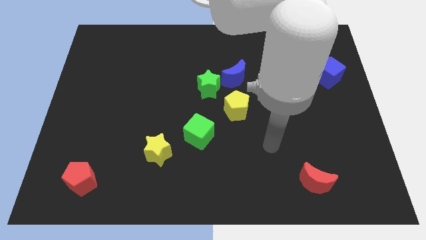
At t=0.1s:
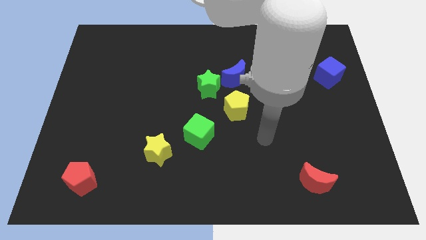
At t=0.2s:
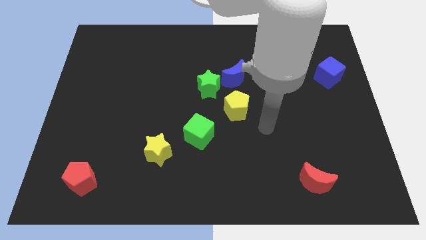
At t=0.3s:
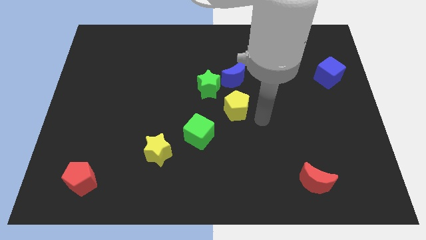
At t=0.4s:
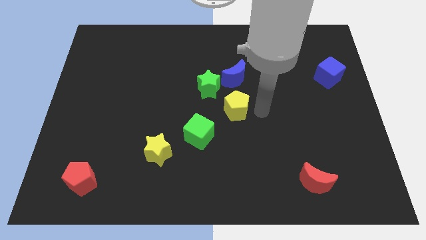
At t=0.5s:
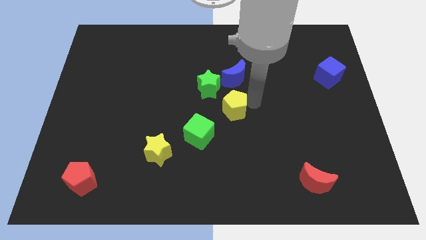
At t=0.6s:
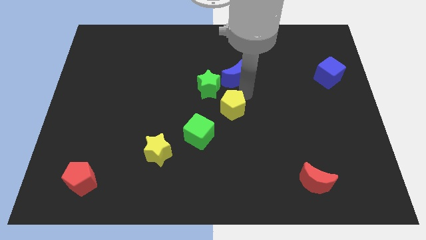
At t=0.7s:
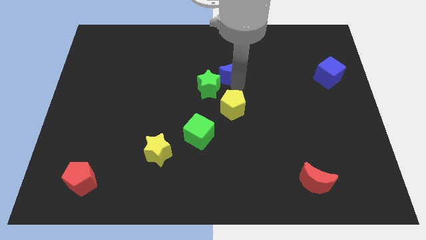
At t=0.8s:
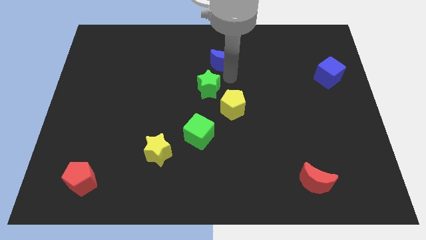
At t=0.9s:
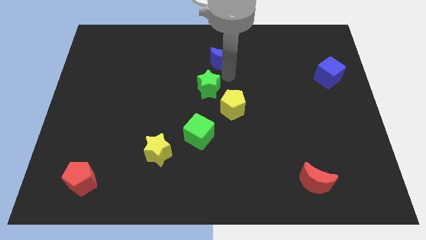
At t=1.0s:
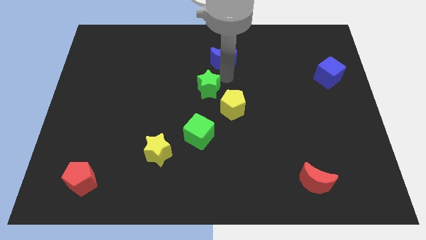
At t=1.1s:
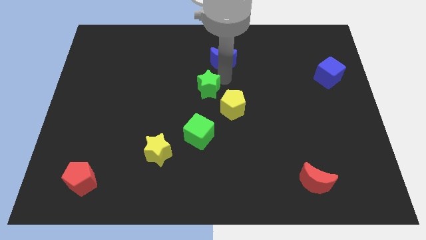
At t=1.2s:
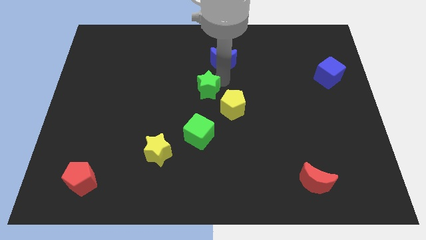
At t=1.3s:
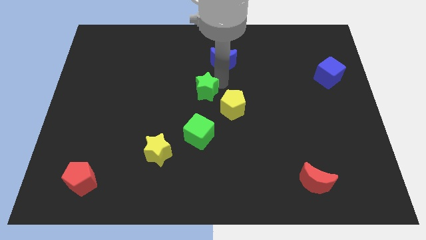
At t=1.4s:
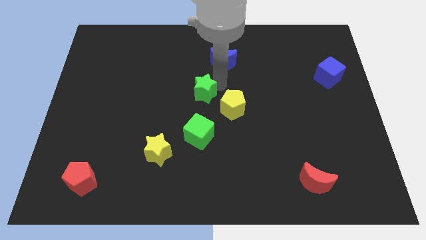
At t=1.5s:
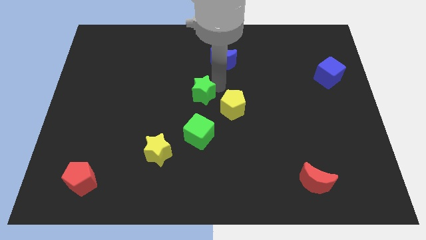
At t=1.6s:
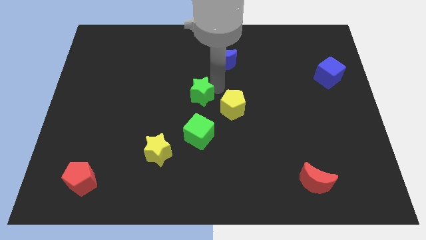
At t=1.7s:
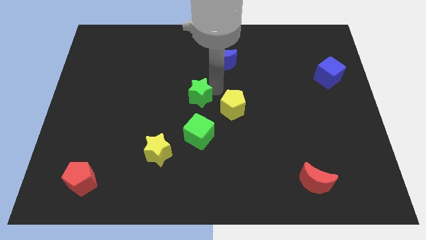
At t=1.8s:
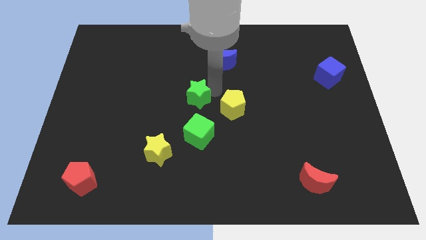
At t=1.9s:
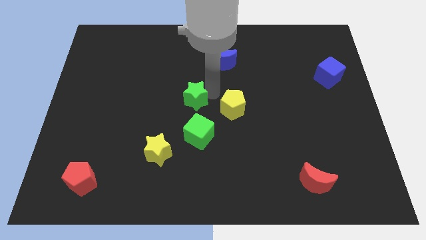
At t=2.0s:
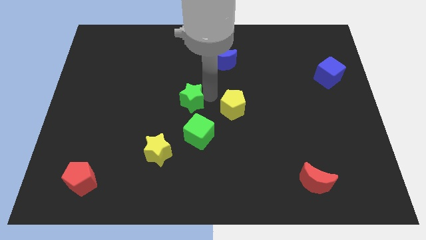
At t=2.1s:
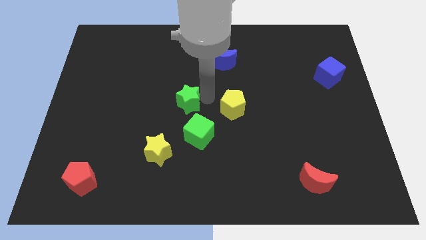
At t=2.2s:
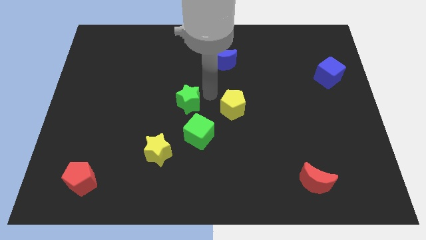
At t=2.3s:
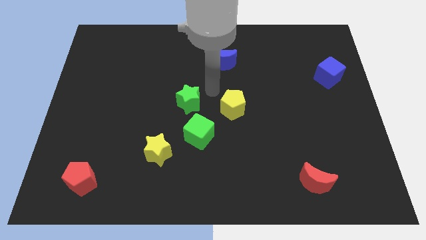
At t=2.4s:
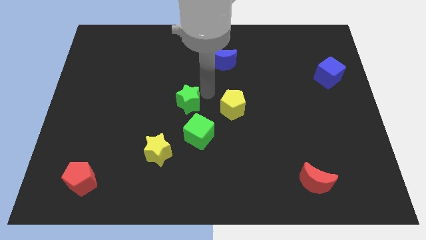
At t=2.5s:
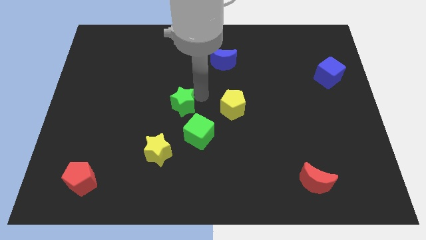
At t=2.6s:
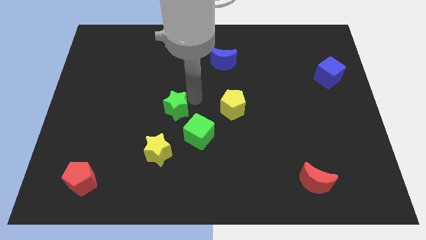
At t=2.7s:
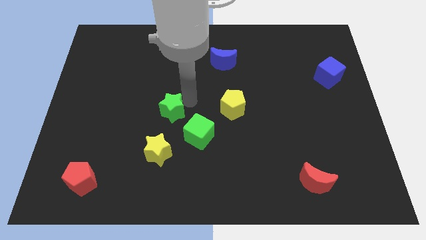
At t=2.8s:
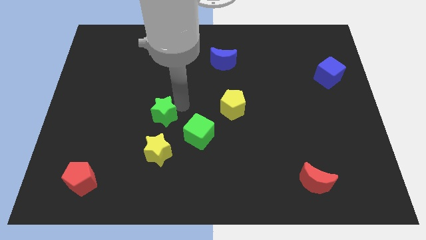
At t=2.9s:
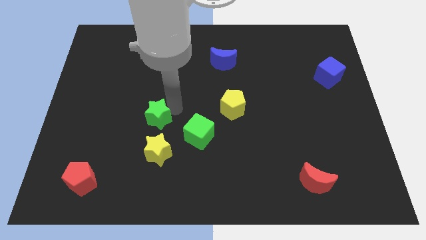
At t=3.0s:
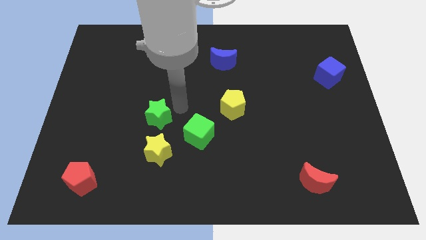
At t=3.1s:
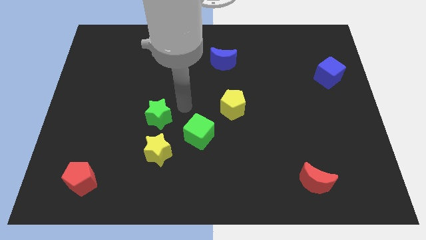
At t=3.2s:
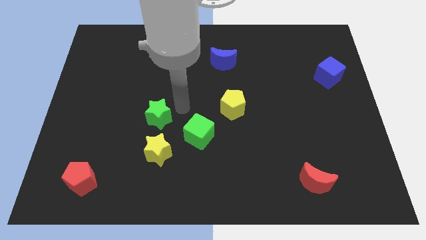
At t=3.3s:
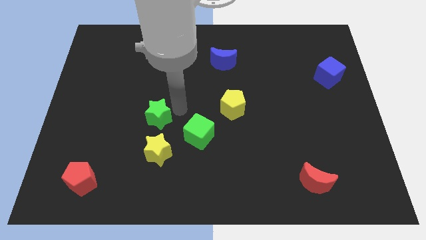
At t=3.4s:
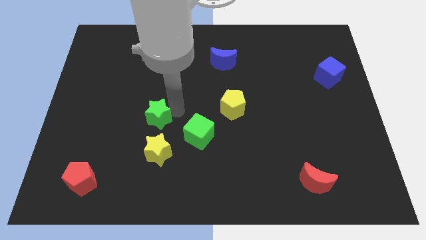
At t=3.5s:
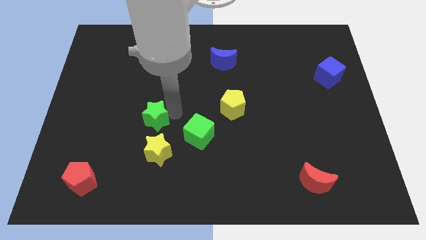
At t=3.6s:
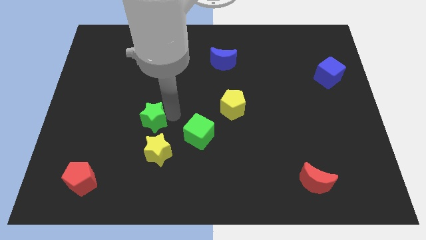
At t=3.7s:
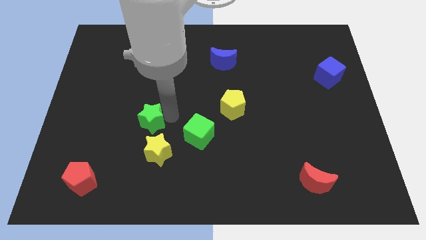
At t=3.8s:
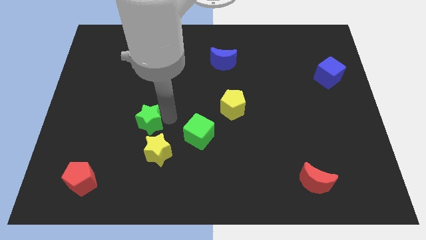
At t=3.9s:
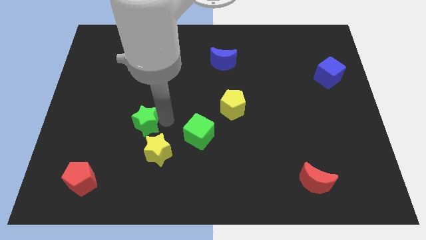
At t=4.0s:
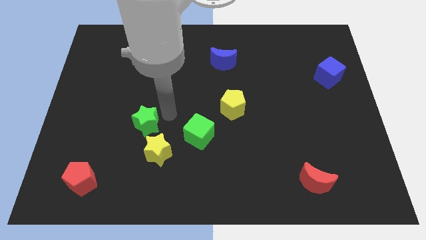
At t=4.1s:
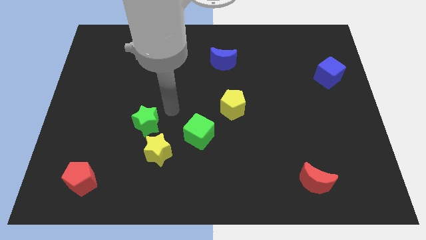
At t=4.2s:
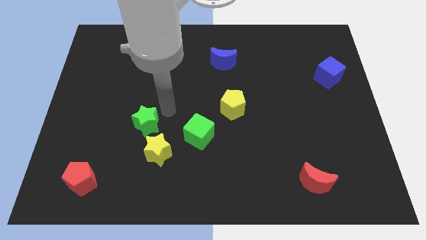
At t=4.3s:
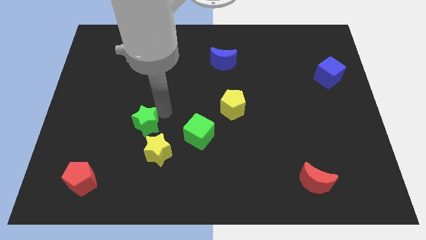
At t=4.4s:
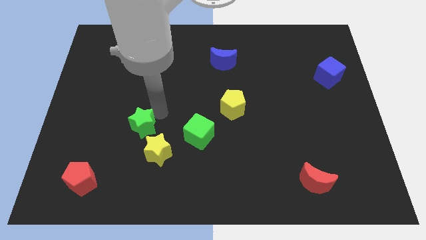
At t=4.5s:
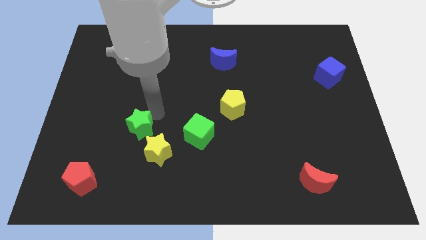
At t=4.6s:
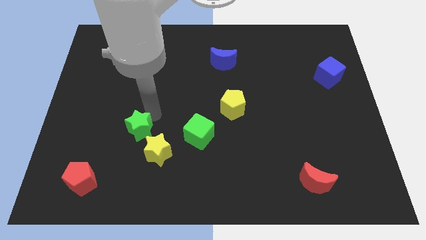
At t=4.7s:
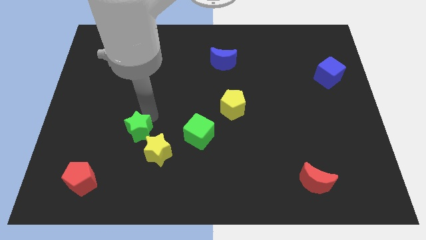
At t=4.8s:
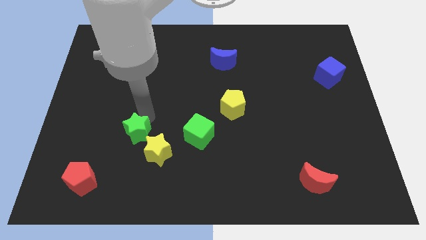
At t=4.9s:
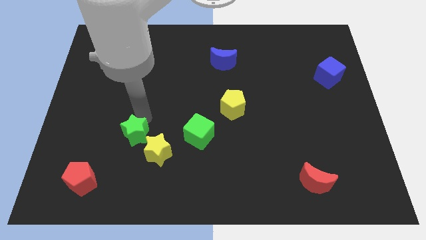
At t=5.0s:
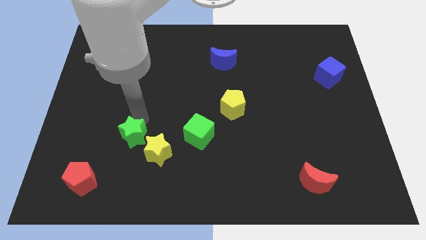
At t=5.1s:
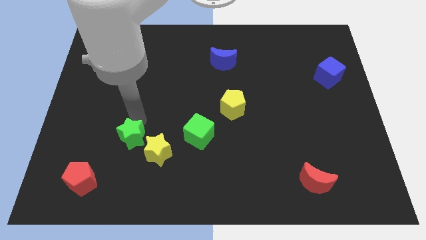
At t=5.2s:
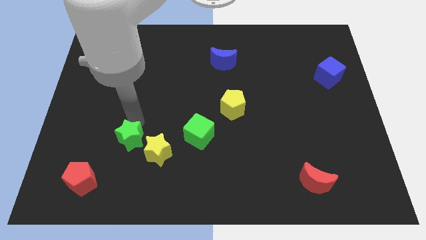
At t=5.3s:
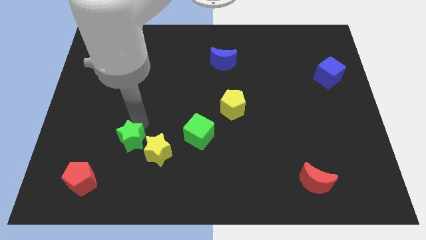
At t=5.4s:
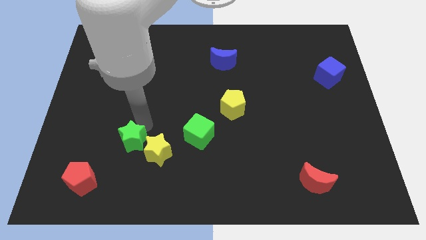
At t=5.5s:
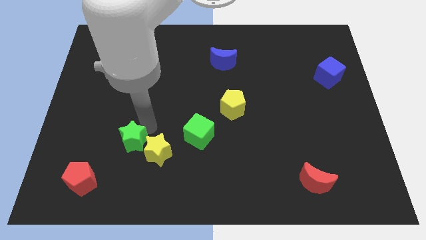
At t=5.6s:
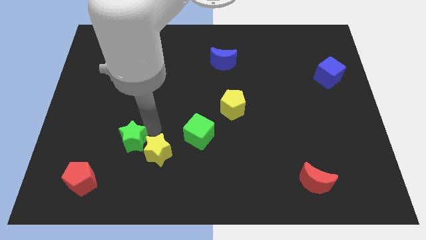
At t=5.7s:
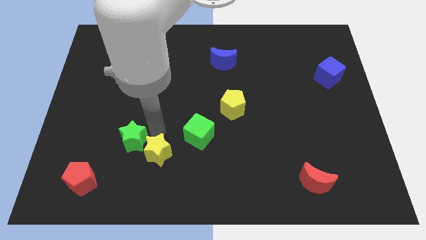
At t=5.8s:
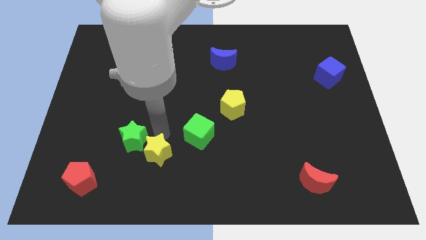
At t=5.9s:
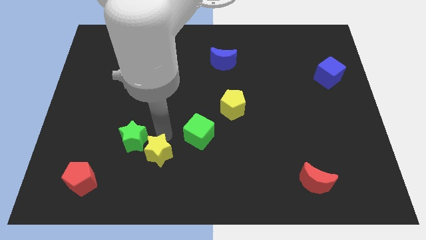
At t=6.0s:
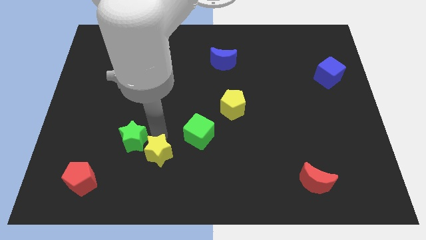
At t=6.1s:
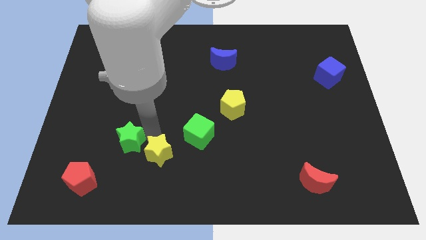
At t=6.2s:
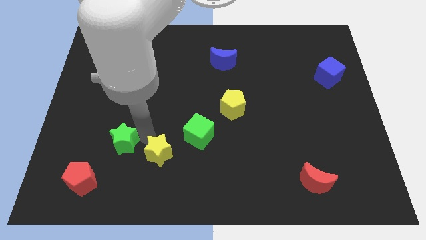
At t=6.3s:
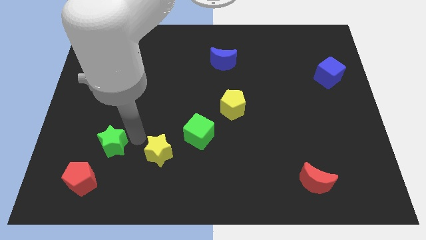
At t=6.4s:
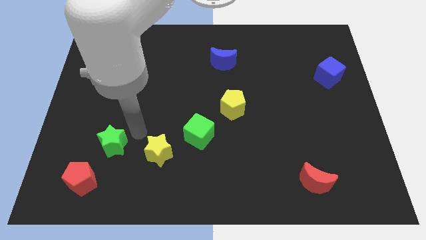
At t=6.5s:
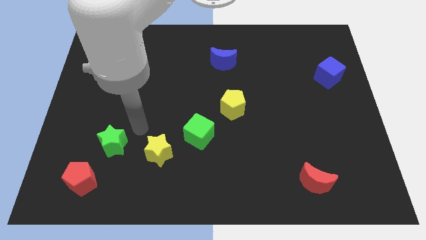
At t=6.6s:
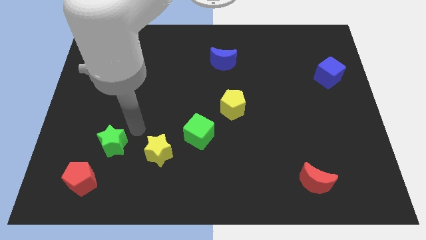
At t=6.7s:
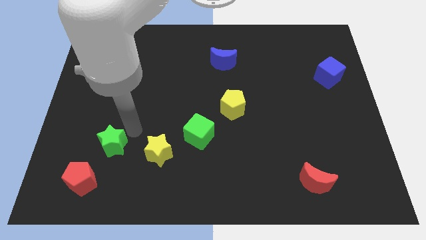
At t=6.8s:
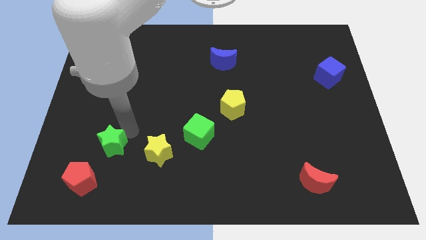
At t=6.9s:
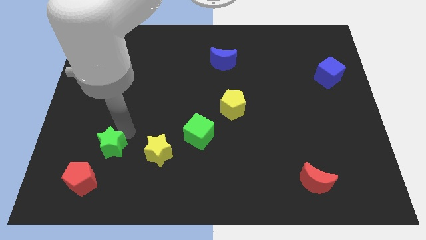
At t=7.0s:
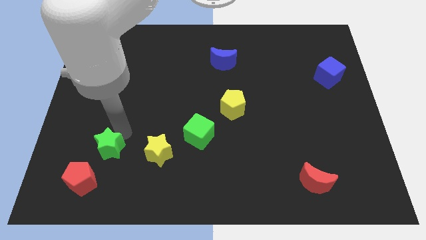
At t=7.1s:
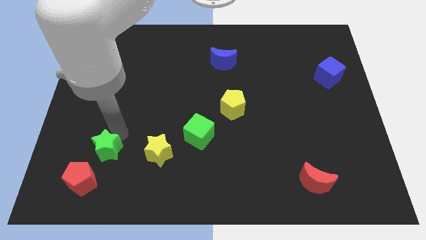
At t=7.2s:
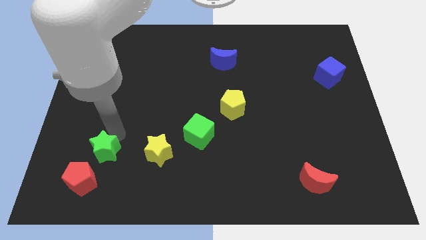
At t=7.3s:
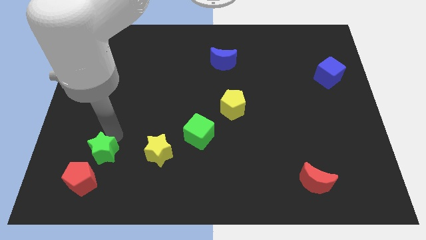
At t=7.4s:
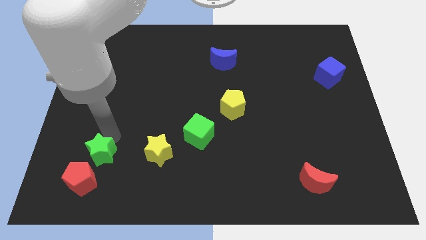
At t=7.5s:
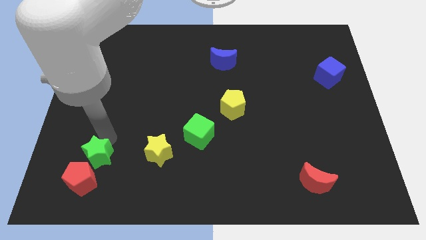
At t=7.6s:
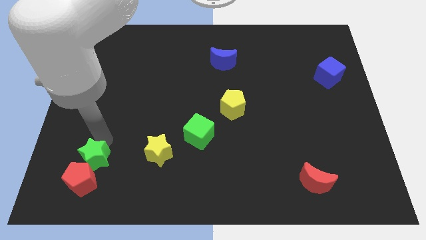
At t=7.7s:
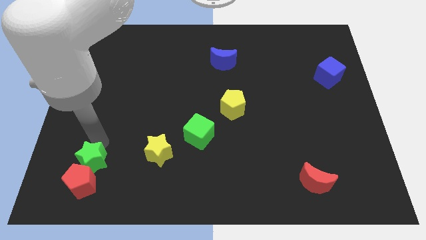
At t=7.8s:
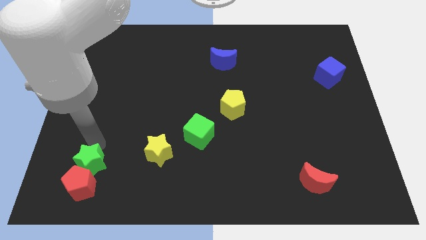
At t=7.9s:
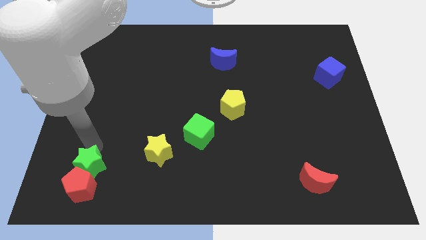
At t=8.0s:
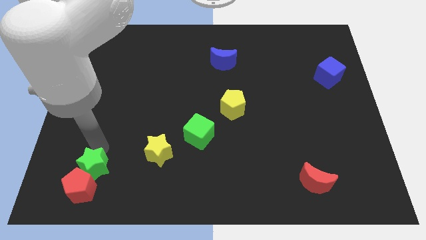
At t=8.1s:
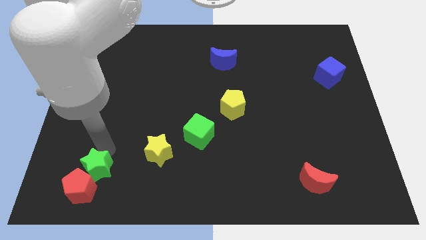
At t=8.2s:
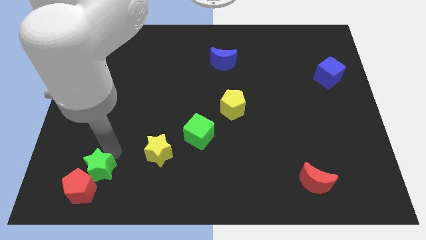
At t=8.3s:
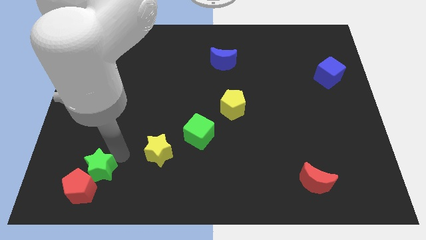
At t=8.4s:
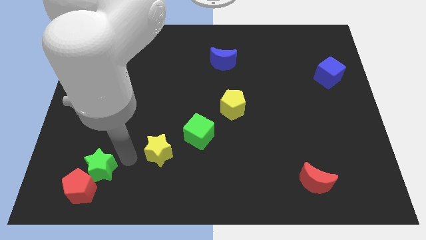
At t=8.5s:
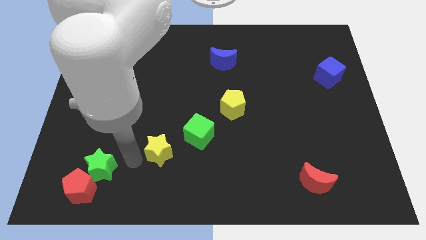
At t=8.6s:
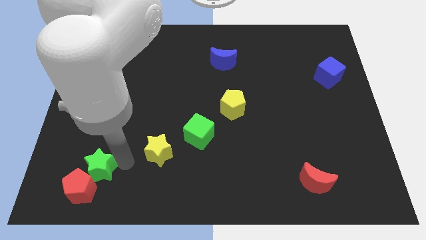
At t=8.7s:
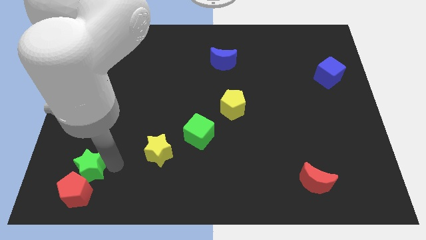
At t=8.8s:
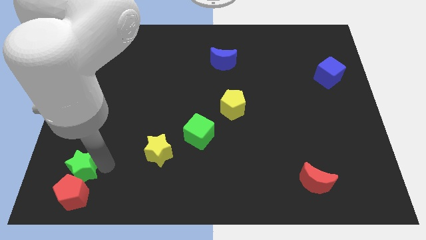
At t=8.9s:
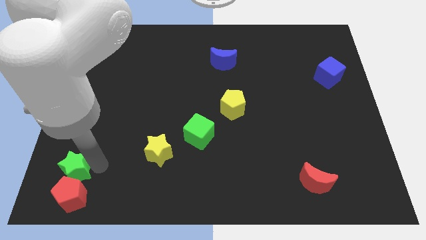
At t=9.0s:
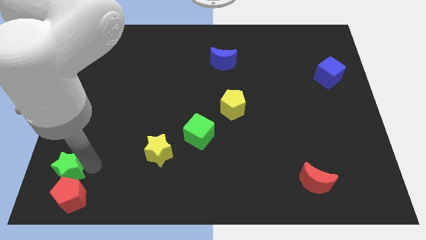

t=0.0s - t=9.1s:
move the green star to the bottom left
